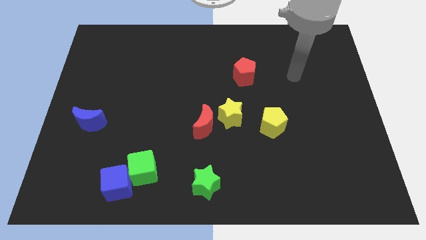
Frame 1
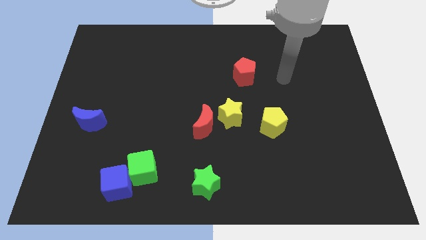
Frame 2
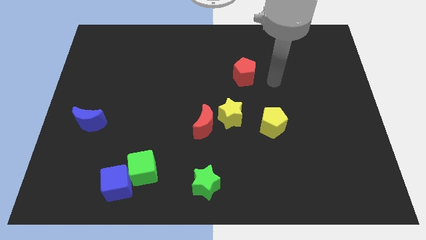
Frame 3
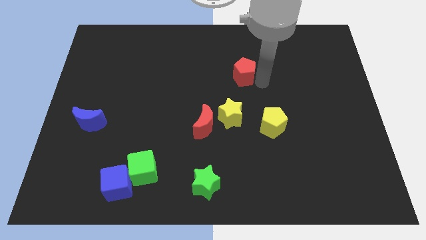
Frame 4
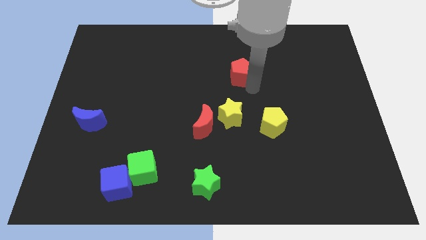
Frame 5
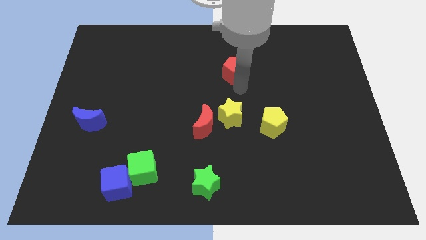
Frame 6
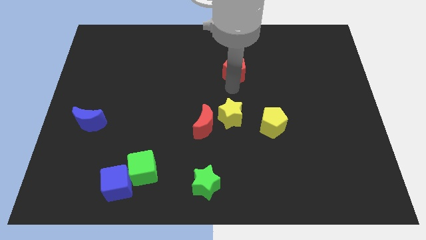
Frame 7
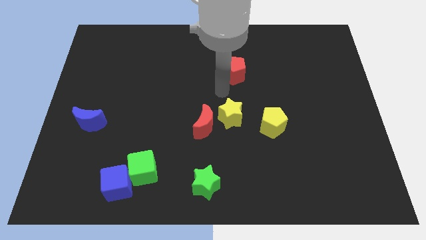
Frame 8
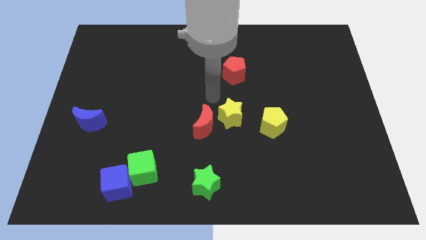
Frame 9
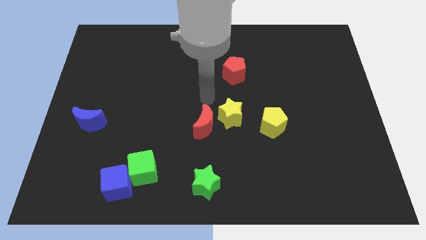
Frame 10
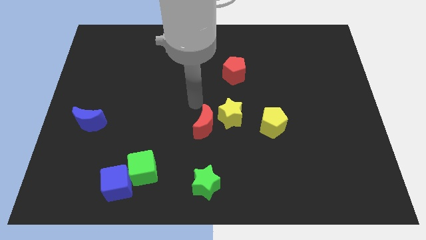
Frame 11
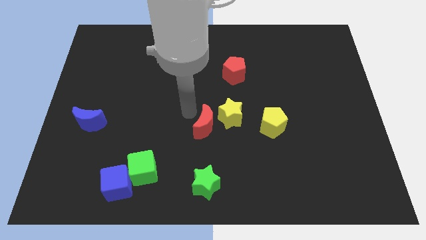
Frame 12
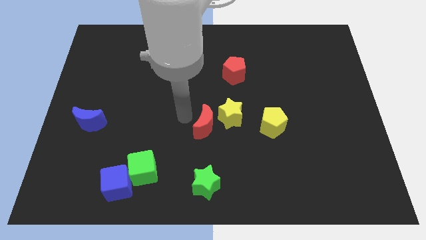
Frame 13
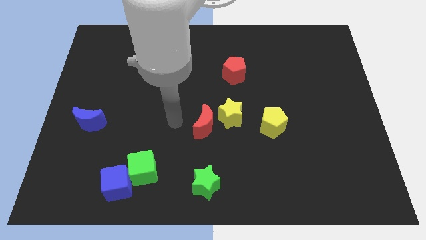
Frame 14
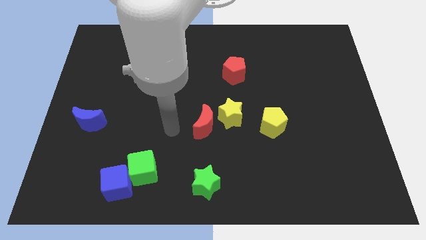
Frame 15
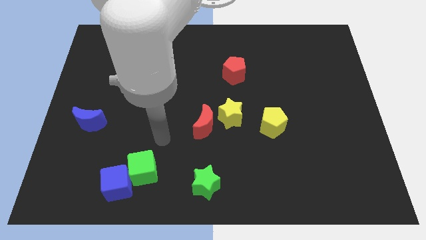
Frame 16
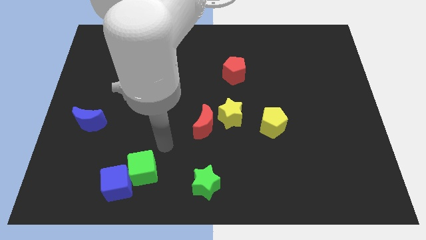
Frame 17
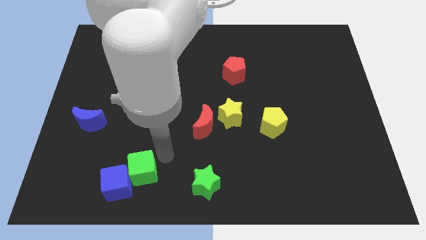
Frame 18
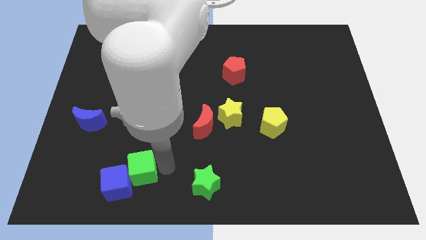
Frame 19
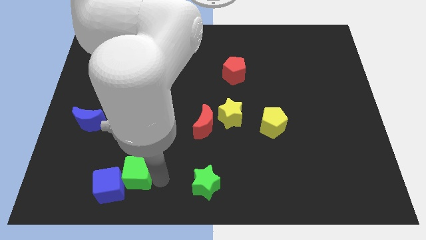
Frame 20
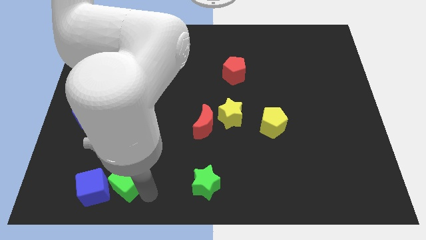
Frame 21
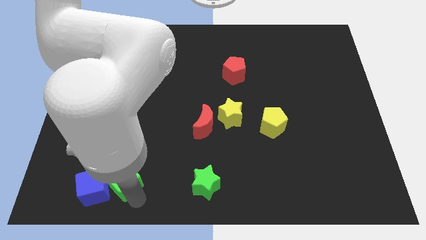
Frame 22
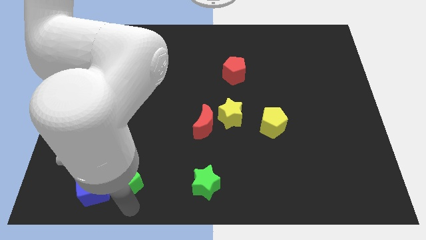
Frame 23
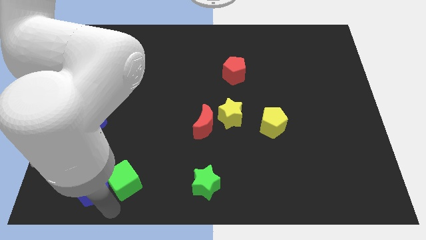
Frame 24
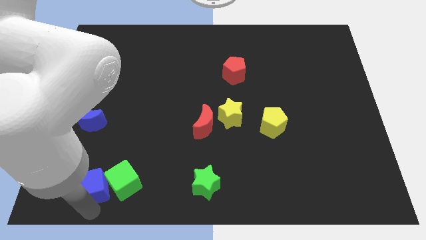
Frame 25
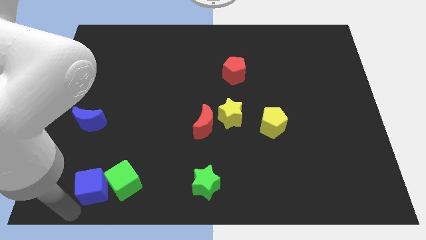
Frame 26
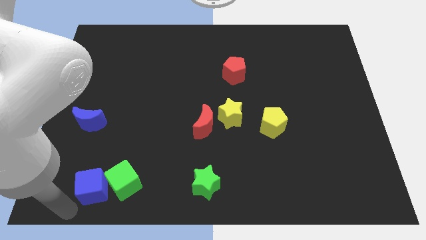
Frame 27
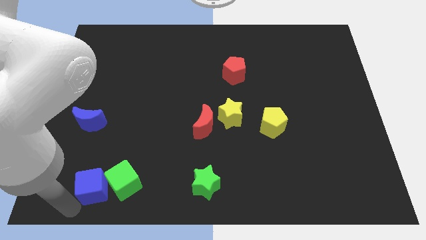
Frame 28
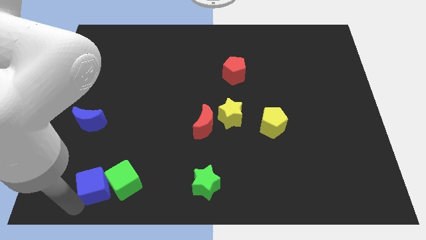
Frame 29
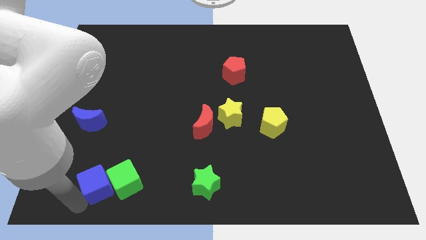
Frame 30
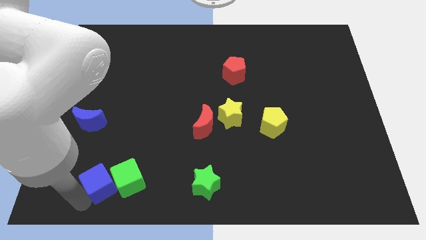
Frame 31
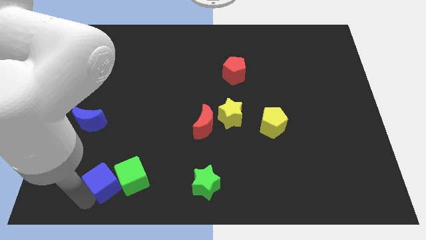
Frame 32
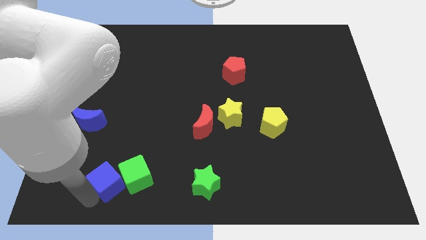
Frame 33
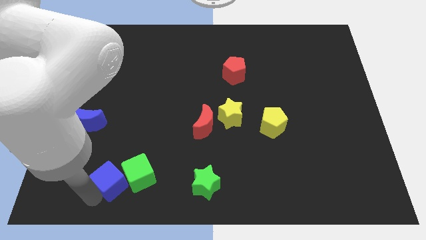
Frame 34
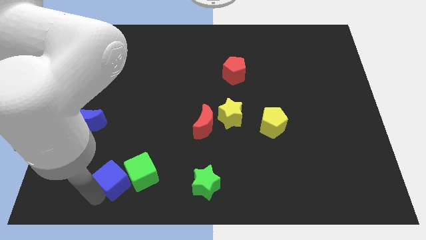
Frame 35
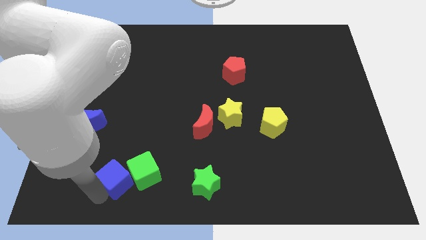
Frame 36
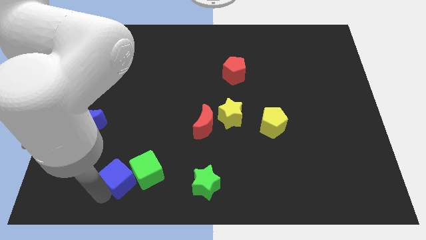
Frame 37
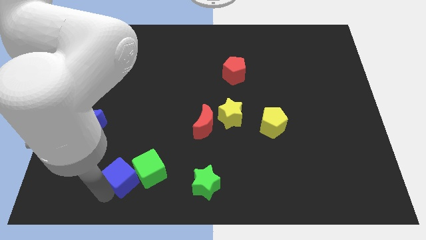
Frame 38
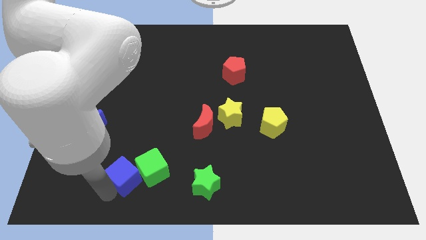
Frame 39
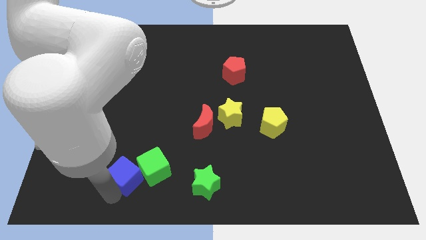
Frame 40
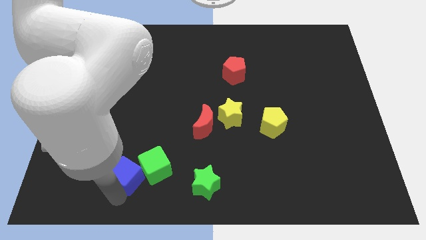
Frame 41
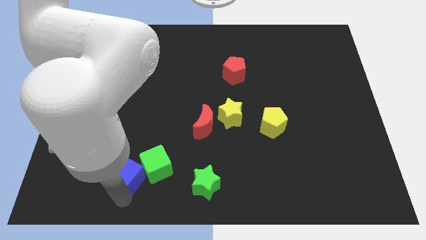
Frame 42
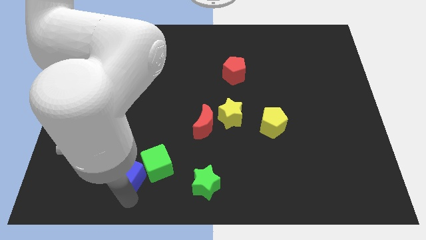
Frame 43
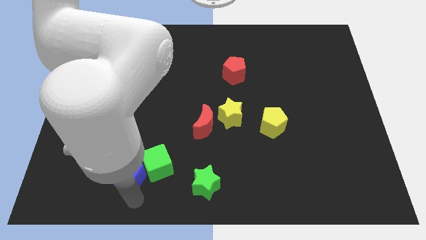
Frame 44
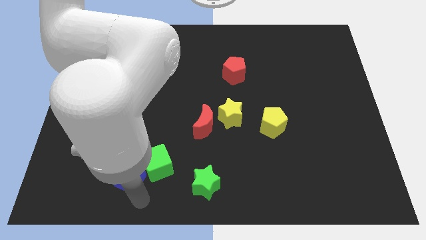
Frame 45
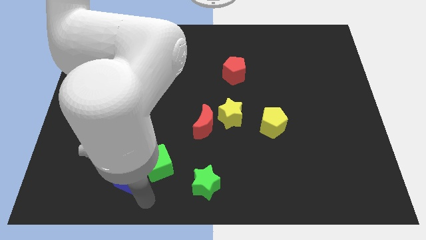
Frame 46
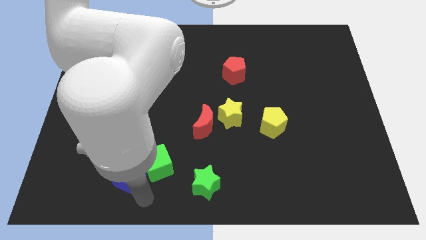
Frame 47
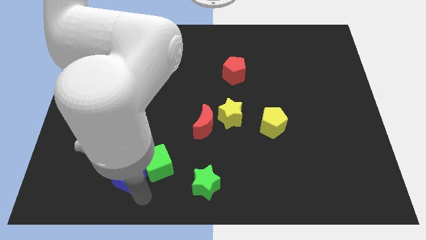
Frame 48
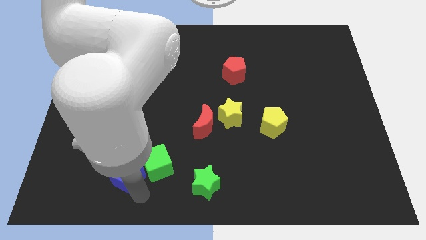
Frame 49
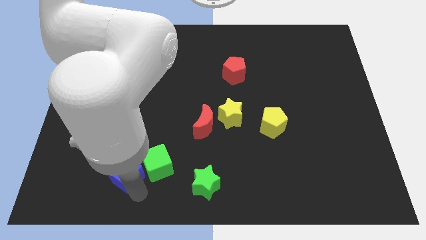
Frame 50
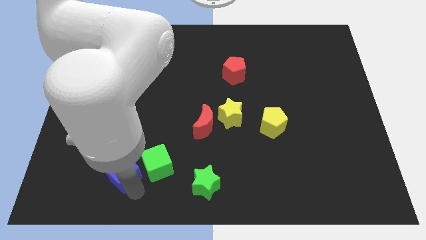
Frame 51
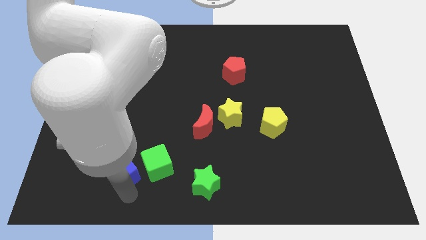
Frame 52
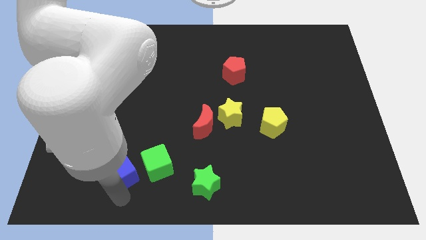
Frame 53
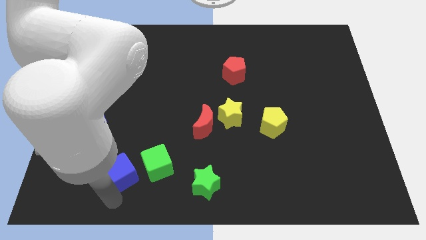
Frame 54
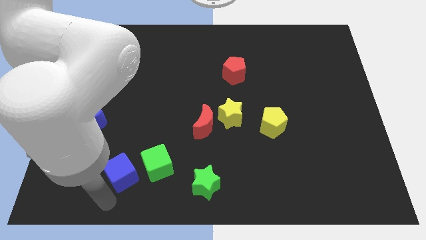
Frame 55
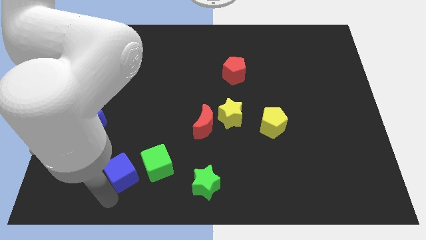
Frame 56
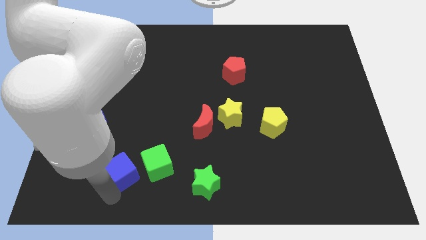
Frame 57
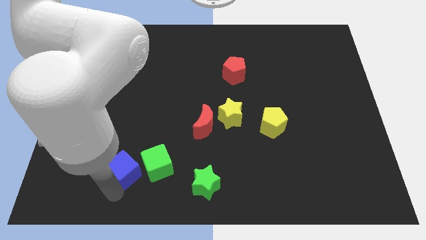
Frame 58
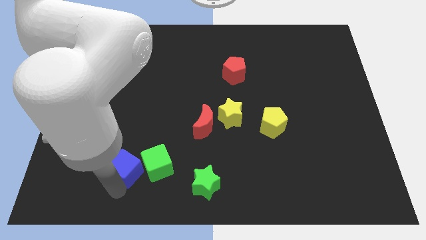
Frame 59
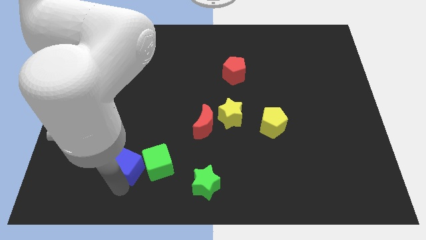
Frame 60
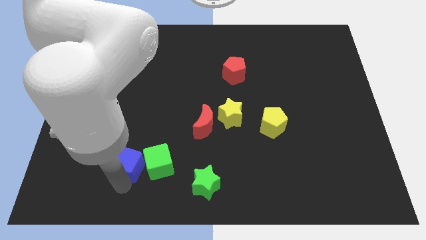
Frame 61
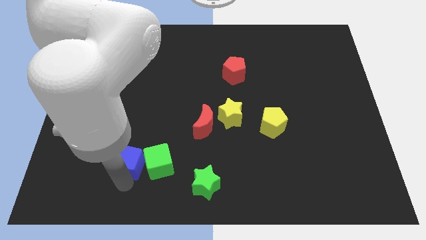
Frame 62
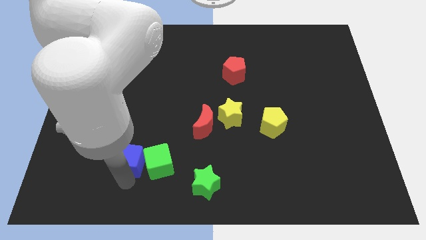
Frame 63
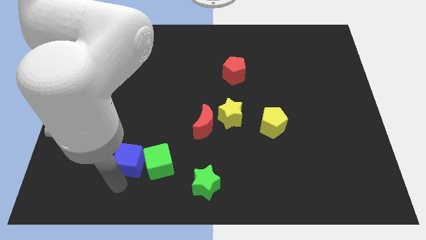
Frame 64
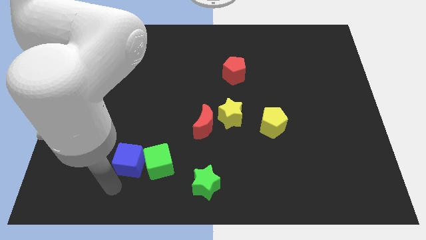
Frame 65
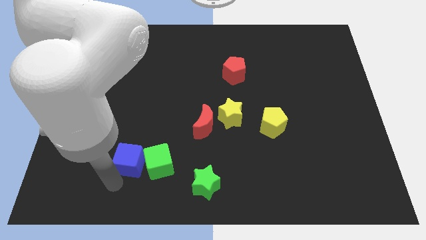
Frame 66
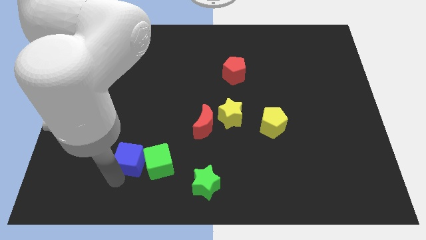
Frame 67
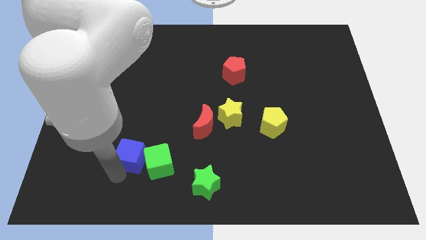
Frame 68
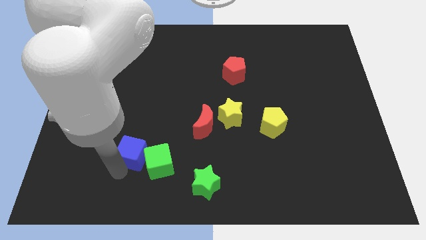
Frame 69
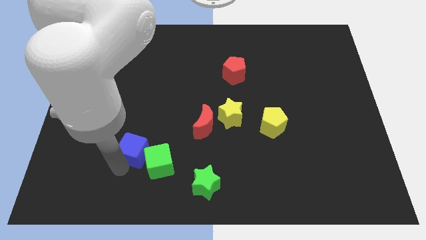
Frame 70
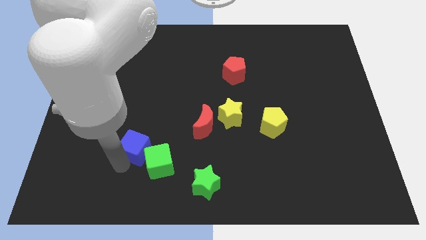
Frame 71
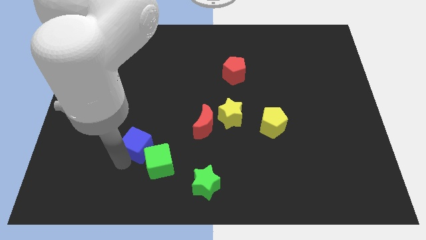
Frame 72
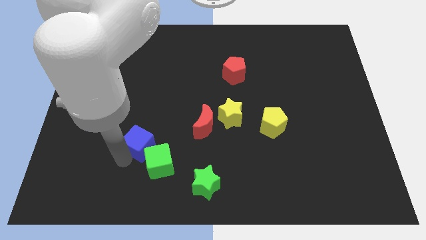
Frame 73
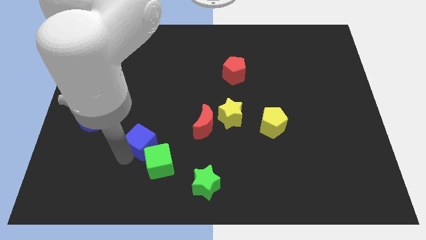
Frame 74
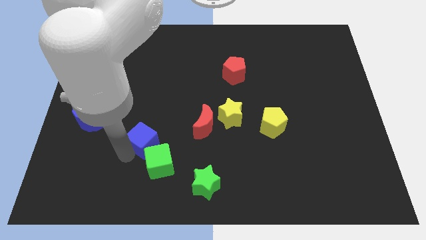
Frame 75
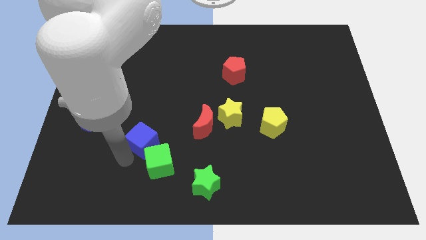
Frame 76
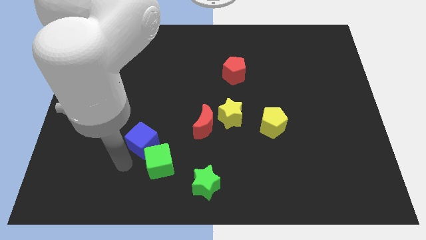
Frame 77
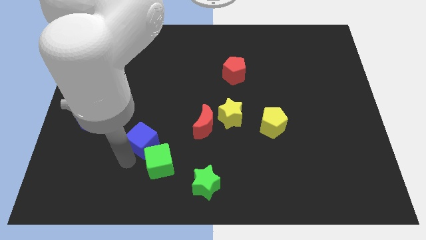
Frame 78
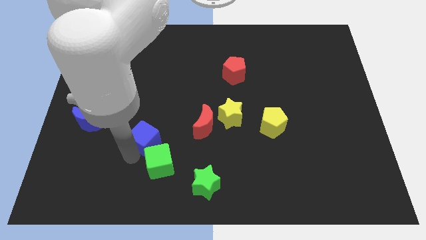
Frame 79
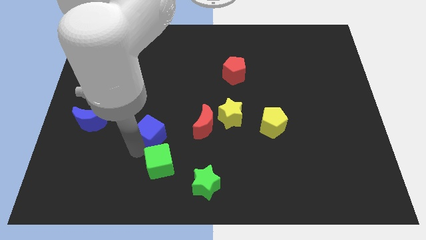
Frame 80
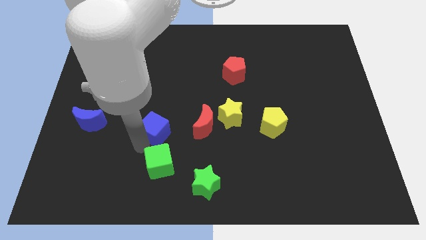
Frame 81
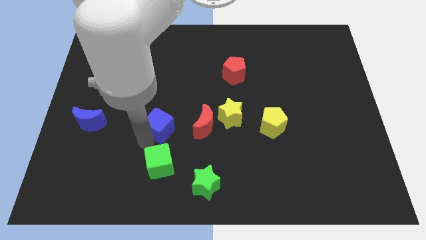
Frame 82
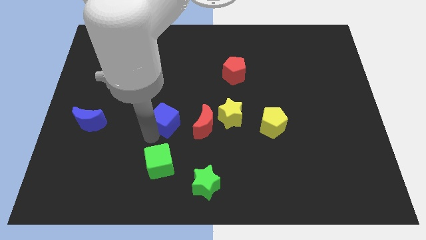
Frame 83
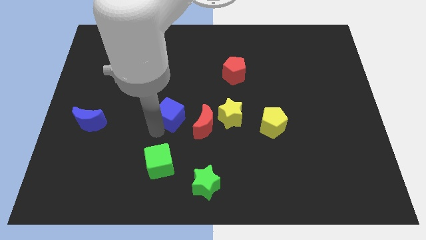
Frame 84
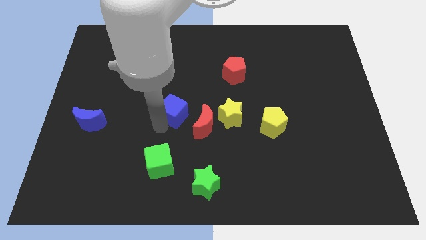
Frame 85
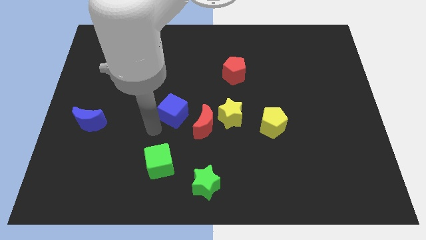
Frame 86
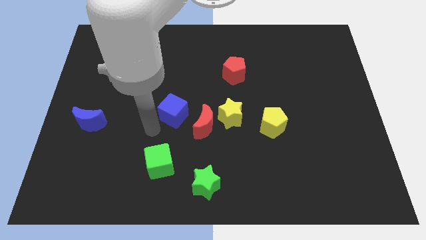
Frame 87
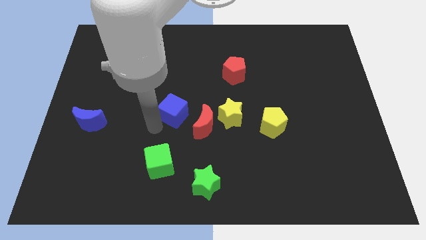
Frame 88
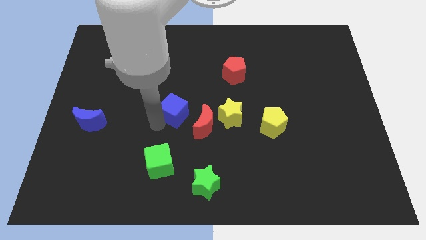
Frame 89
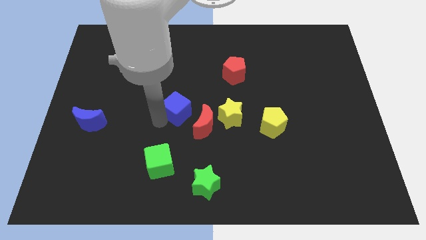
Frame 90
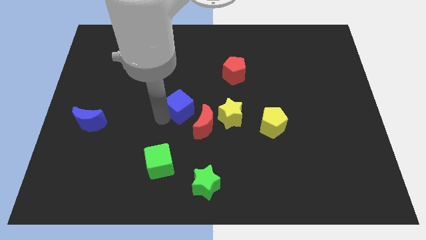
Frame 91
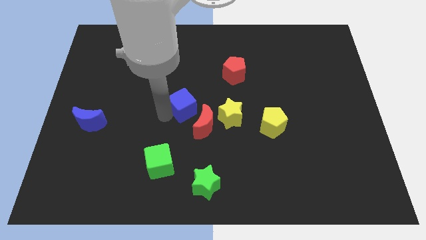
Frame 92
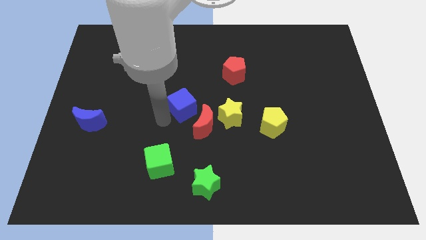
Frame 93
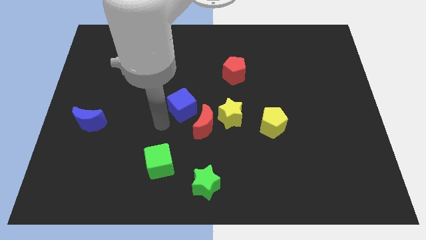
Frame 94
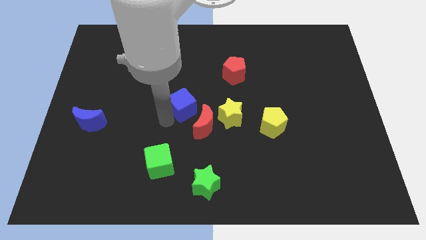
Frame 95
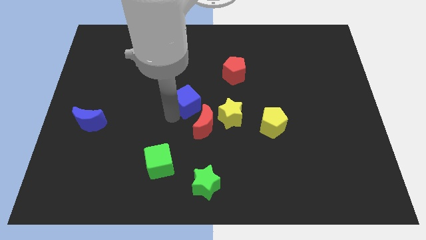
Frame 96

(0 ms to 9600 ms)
put the blue cube above the red moon
